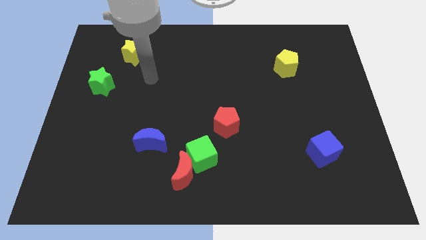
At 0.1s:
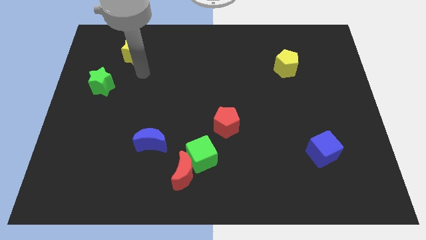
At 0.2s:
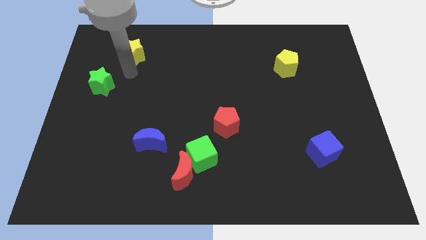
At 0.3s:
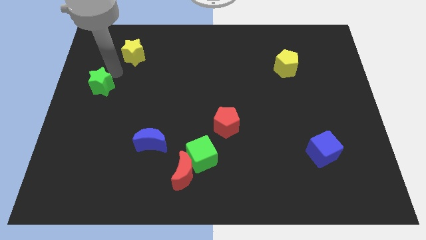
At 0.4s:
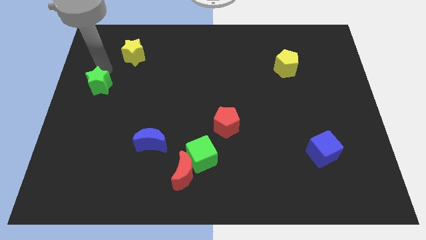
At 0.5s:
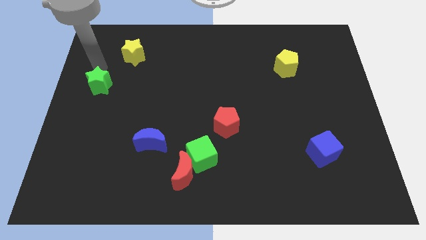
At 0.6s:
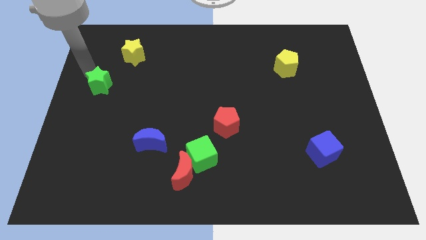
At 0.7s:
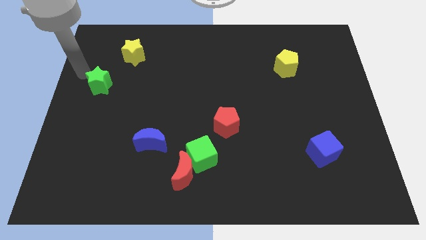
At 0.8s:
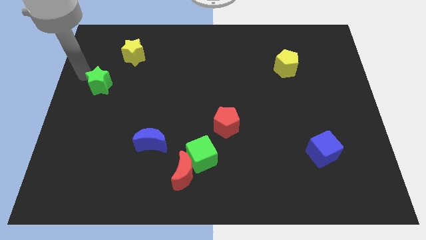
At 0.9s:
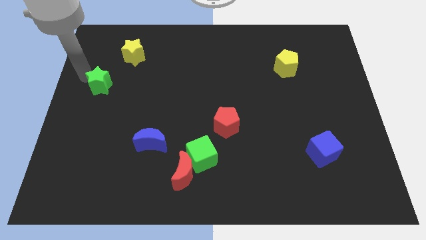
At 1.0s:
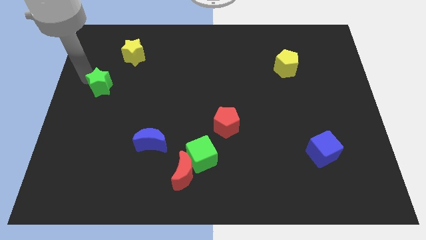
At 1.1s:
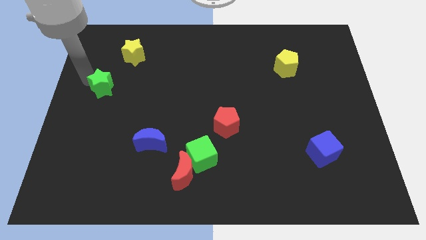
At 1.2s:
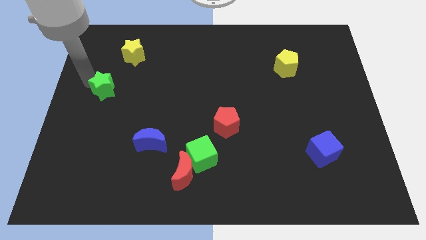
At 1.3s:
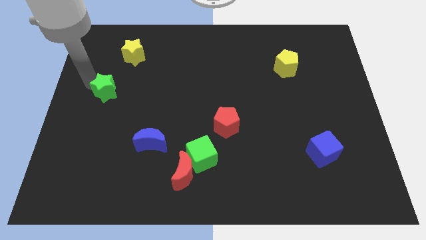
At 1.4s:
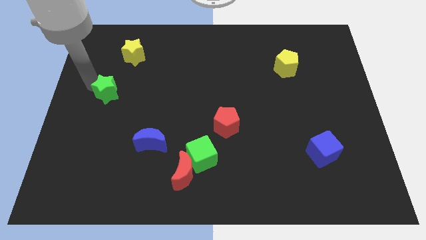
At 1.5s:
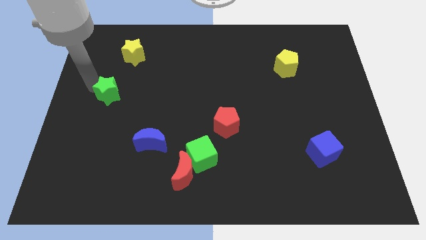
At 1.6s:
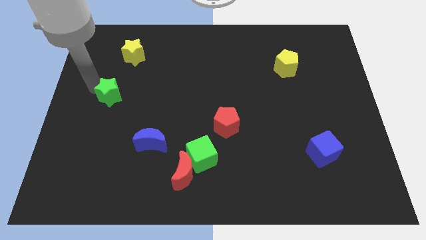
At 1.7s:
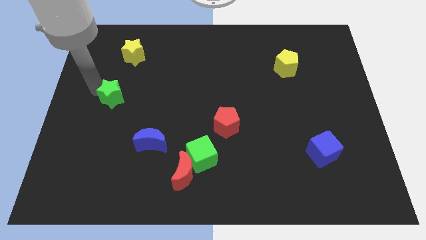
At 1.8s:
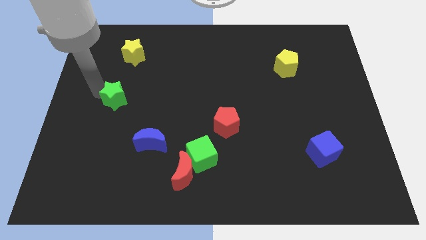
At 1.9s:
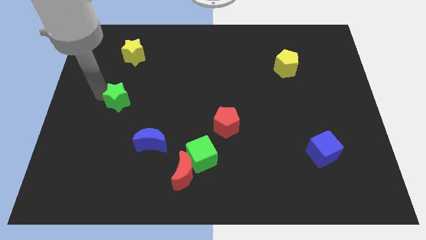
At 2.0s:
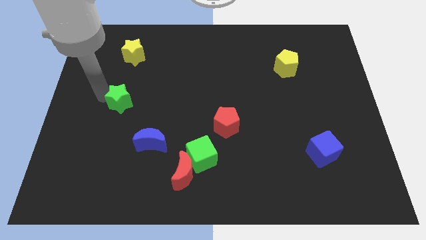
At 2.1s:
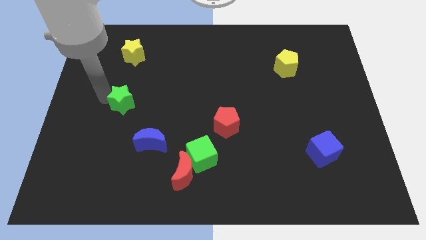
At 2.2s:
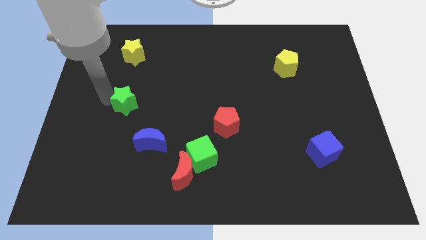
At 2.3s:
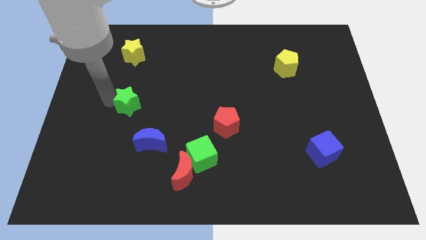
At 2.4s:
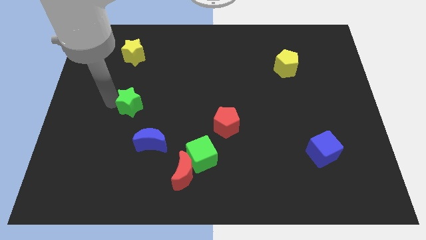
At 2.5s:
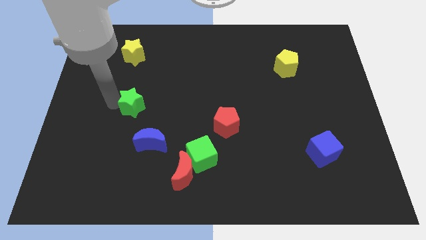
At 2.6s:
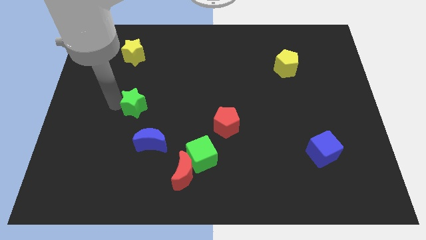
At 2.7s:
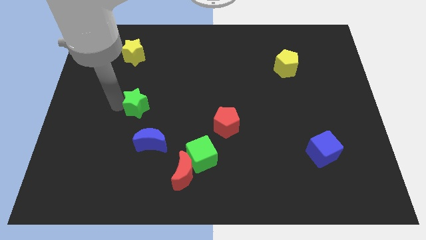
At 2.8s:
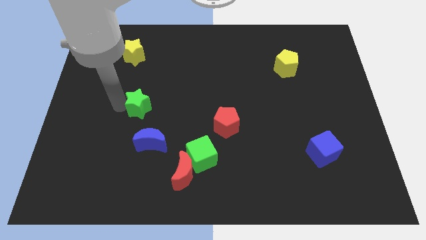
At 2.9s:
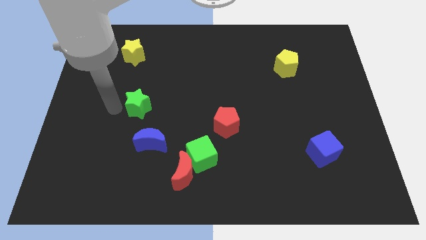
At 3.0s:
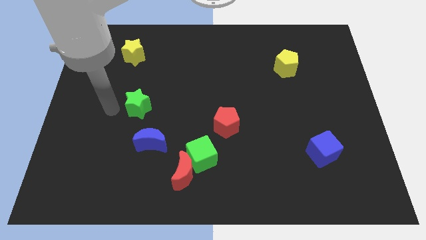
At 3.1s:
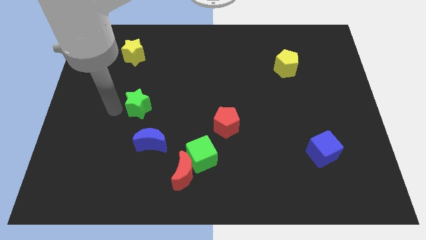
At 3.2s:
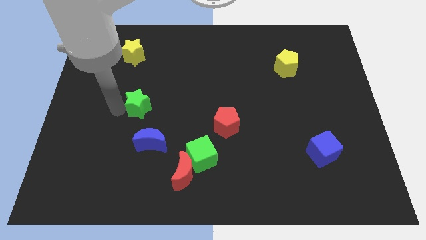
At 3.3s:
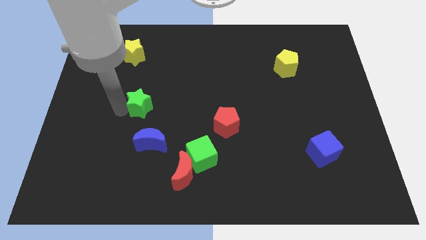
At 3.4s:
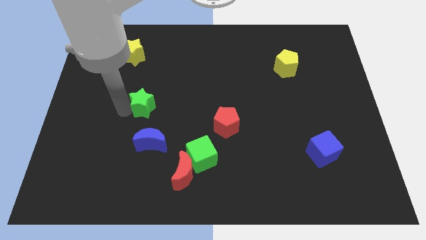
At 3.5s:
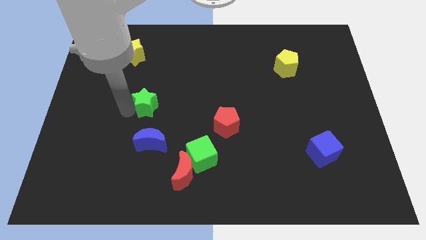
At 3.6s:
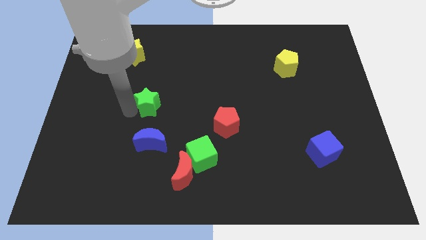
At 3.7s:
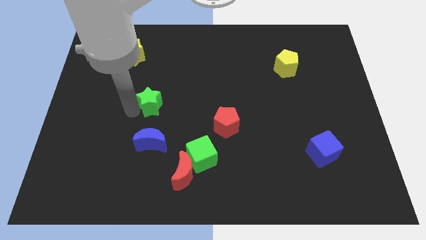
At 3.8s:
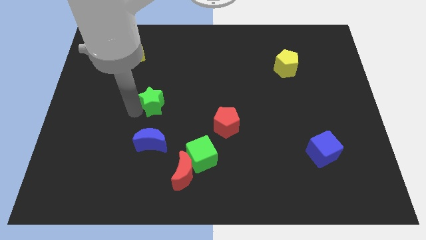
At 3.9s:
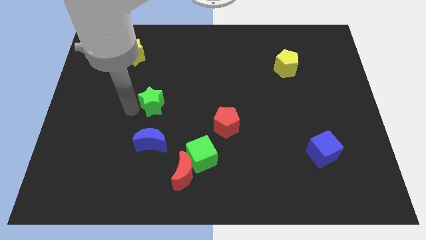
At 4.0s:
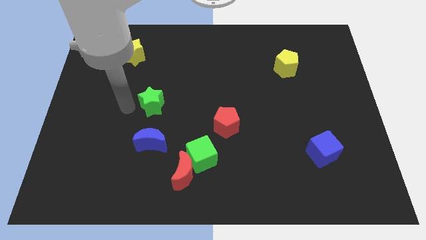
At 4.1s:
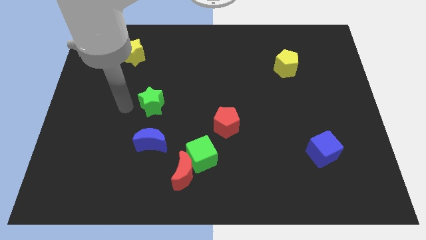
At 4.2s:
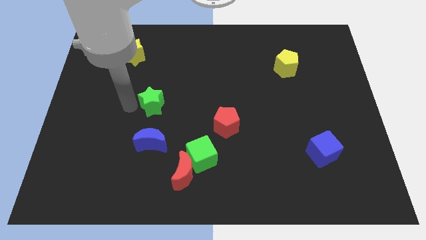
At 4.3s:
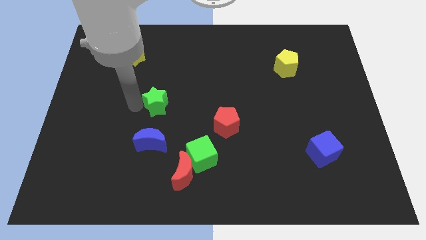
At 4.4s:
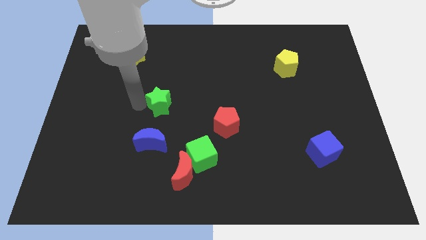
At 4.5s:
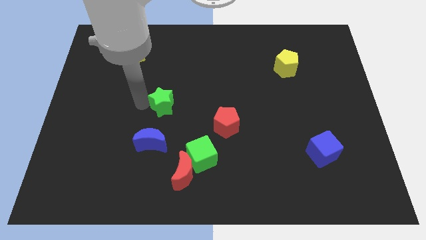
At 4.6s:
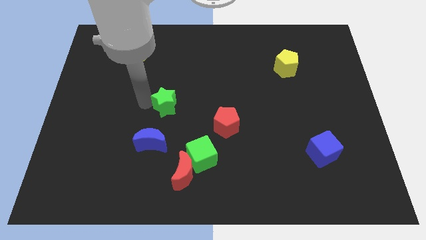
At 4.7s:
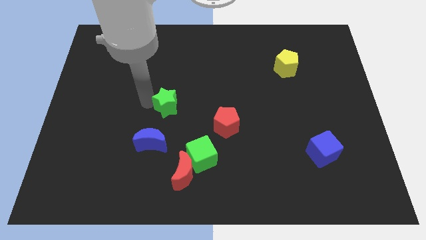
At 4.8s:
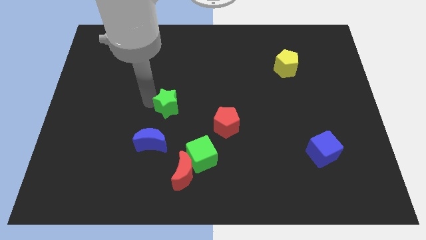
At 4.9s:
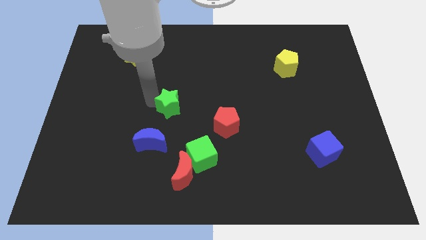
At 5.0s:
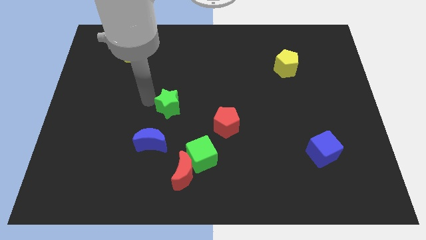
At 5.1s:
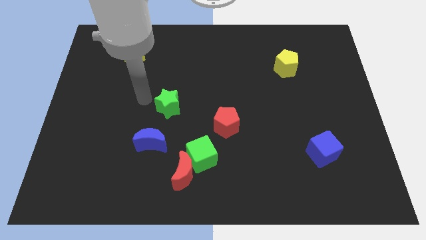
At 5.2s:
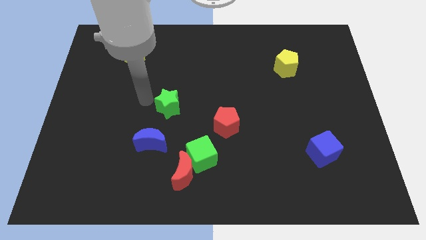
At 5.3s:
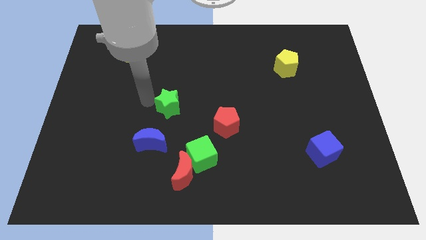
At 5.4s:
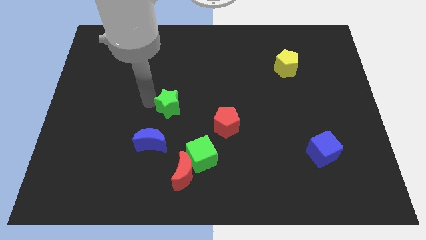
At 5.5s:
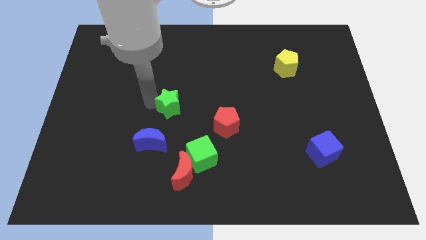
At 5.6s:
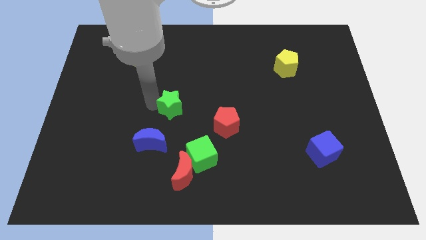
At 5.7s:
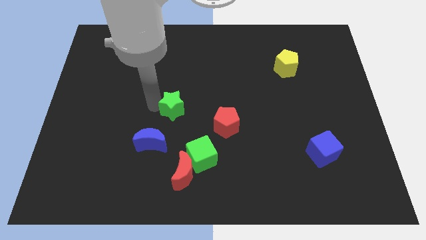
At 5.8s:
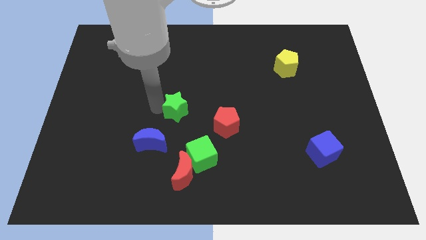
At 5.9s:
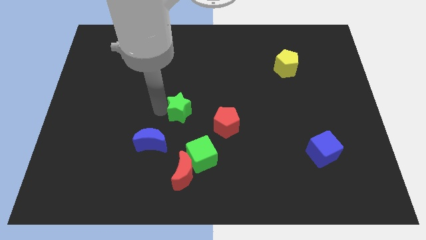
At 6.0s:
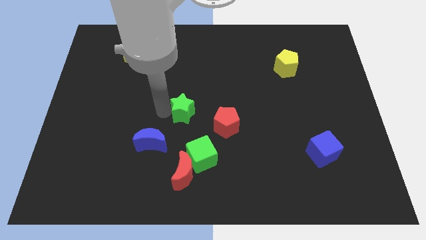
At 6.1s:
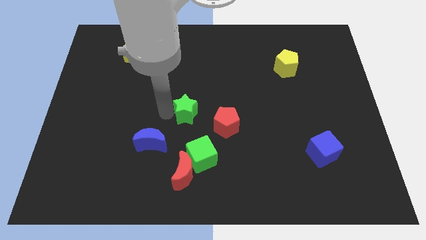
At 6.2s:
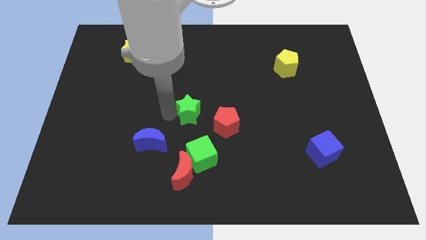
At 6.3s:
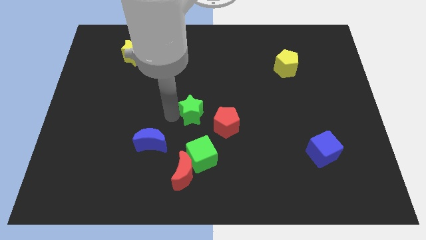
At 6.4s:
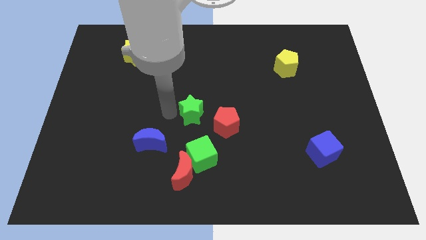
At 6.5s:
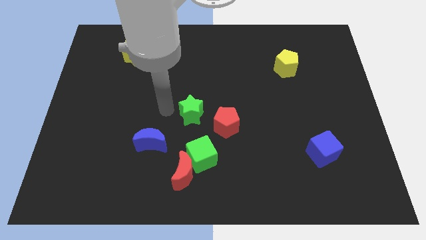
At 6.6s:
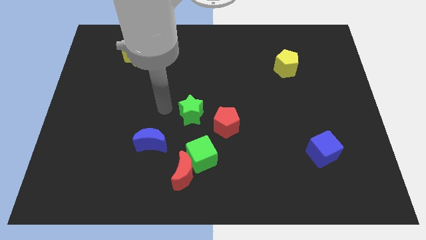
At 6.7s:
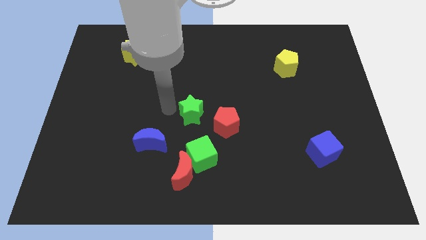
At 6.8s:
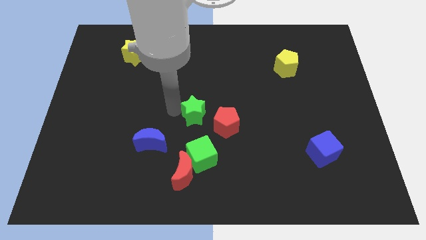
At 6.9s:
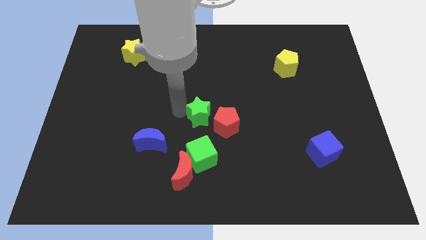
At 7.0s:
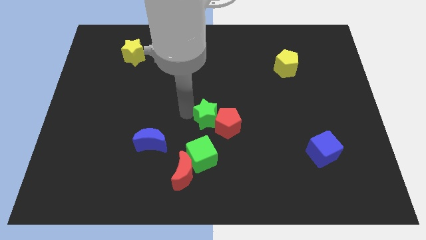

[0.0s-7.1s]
slide the green star next to the red pentagon
